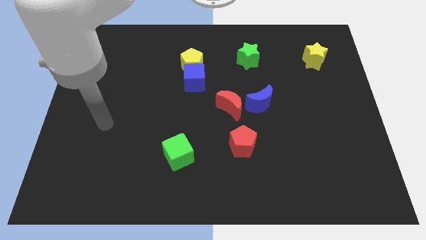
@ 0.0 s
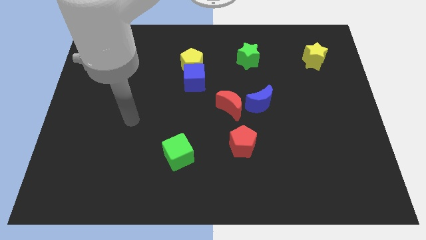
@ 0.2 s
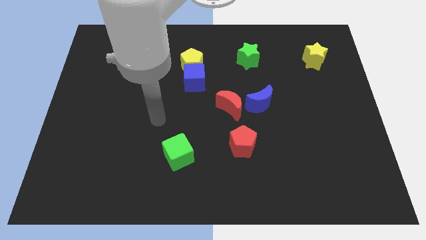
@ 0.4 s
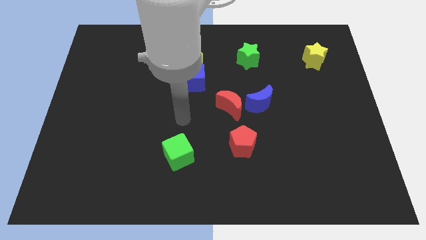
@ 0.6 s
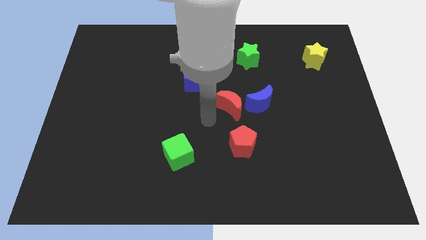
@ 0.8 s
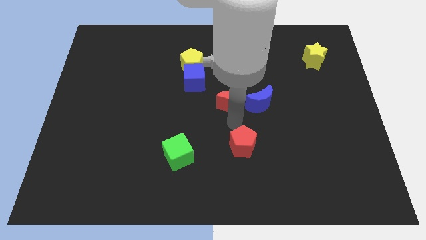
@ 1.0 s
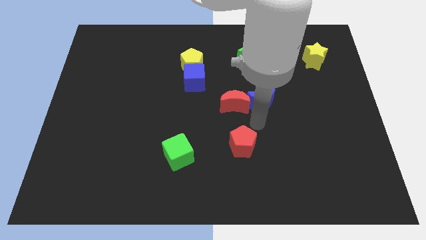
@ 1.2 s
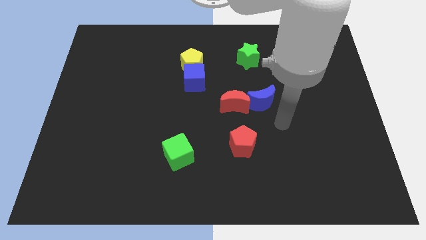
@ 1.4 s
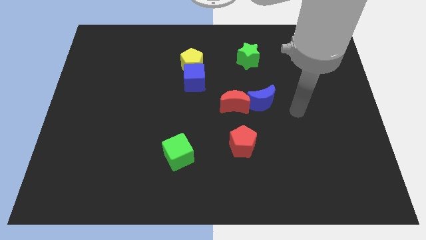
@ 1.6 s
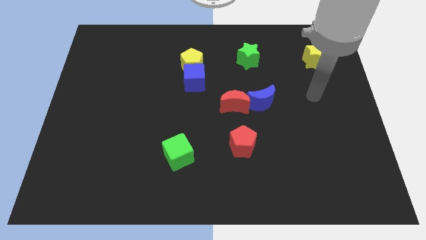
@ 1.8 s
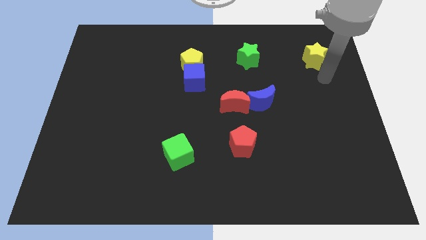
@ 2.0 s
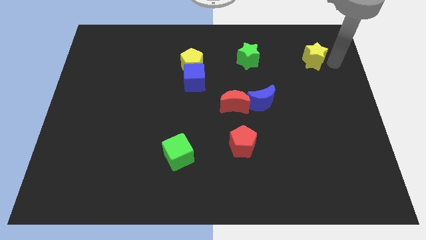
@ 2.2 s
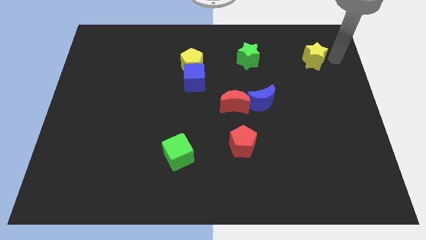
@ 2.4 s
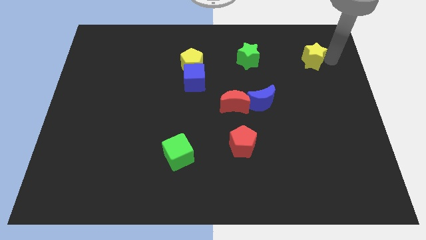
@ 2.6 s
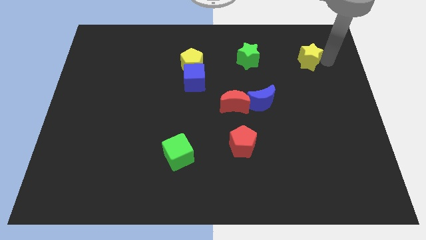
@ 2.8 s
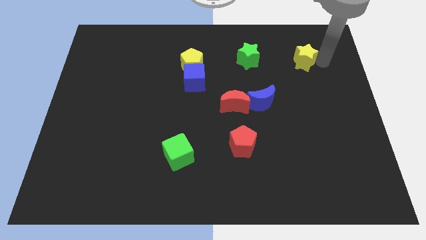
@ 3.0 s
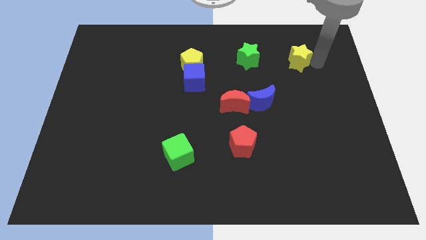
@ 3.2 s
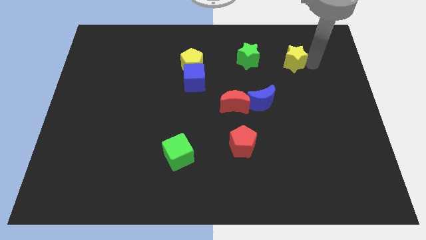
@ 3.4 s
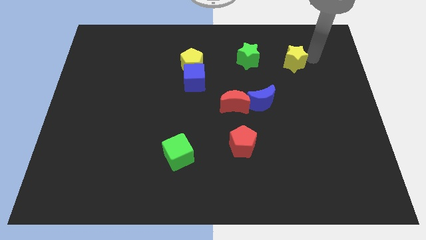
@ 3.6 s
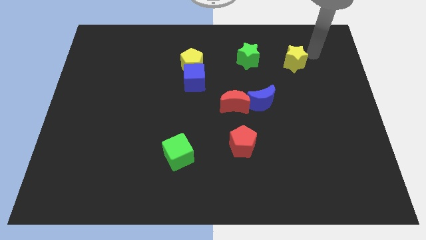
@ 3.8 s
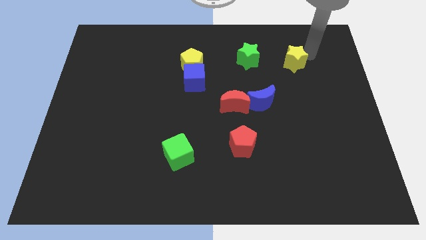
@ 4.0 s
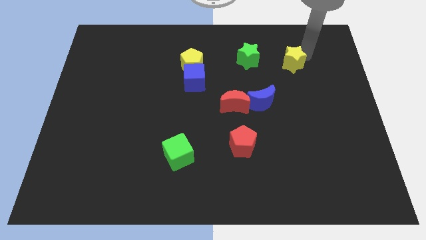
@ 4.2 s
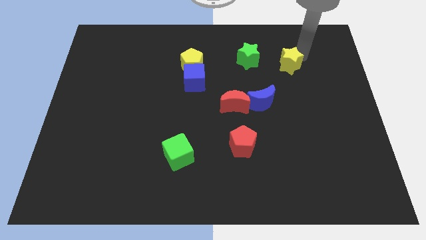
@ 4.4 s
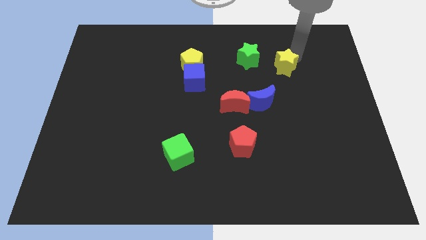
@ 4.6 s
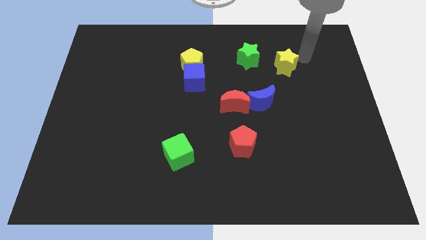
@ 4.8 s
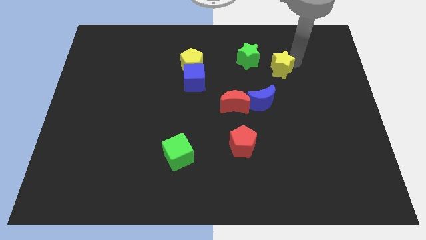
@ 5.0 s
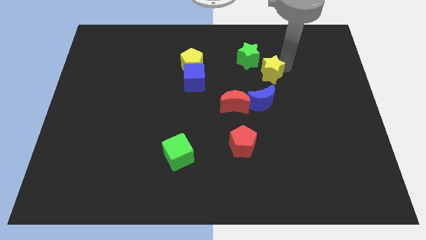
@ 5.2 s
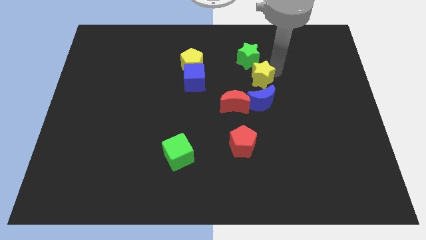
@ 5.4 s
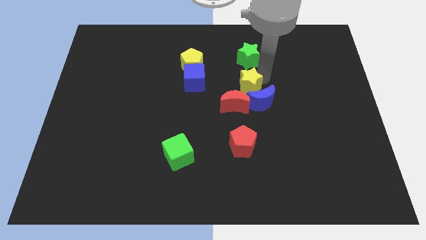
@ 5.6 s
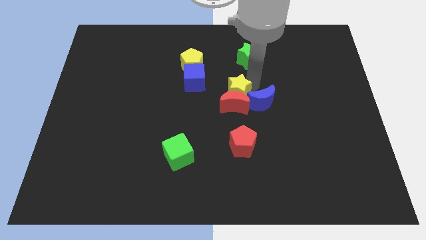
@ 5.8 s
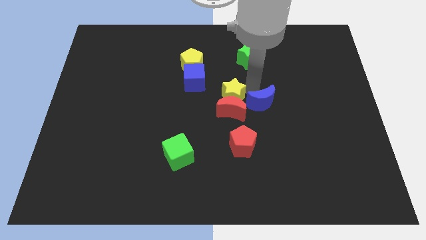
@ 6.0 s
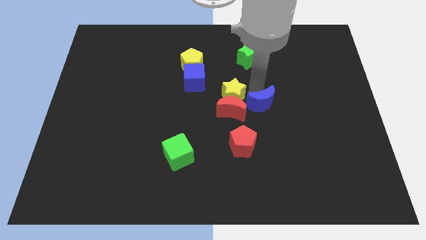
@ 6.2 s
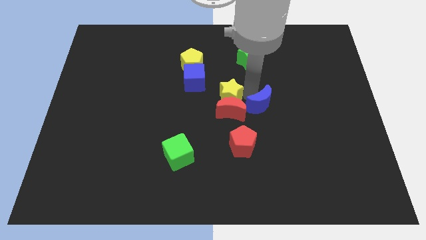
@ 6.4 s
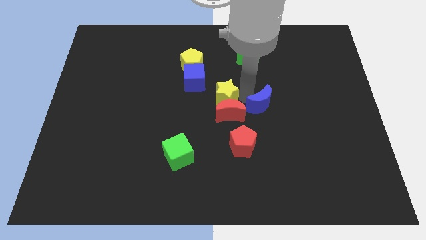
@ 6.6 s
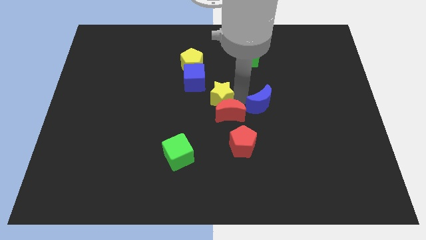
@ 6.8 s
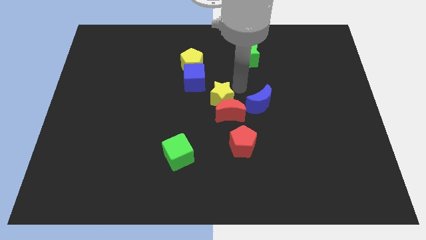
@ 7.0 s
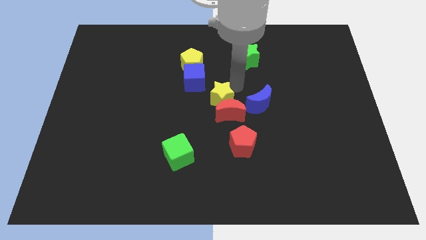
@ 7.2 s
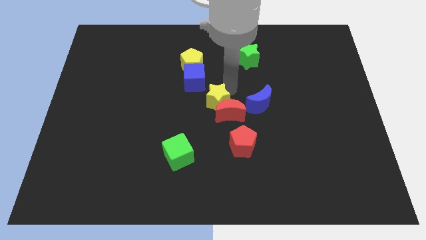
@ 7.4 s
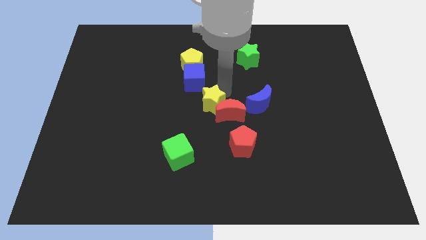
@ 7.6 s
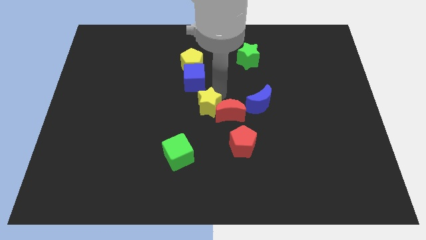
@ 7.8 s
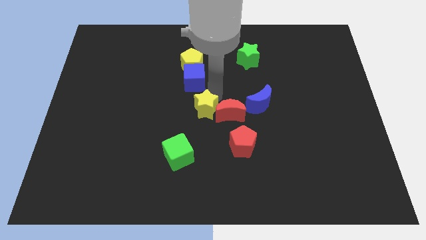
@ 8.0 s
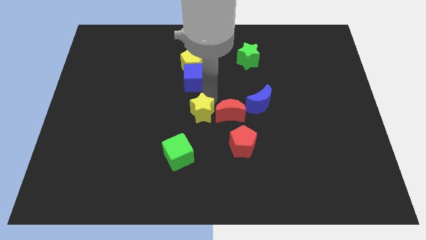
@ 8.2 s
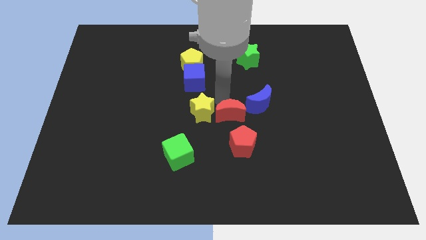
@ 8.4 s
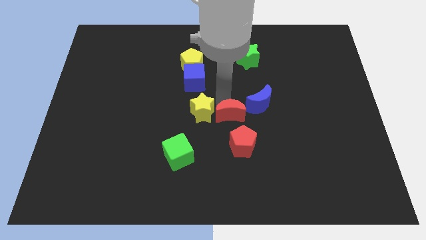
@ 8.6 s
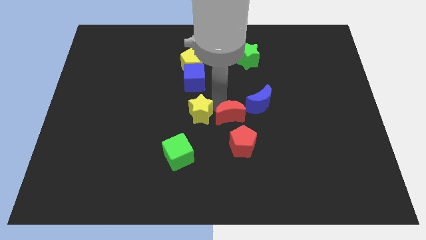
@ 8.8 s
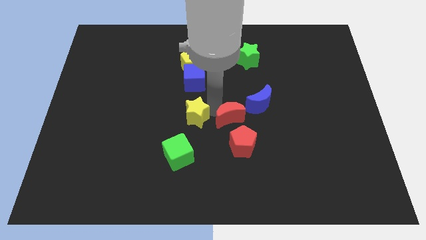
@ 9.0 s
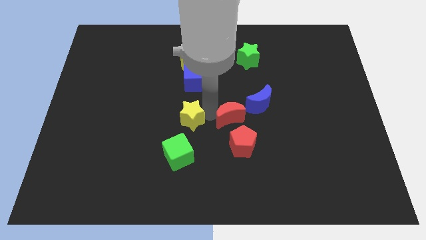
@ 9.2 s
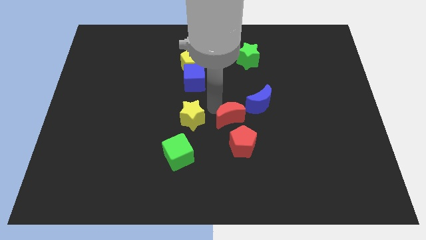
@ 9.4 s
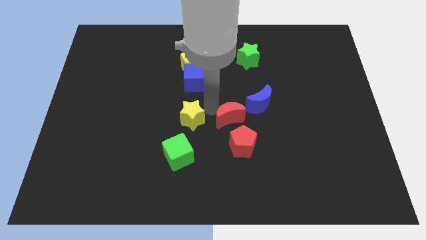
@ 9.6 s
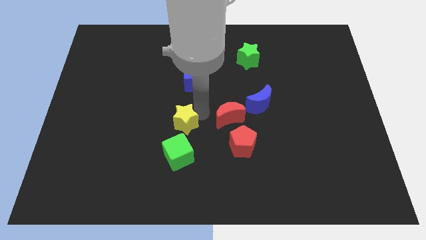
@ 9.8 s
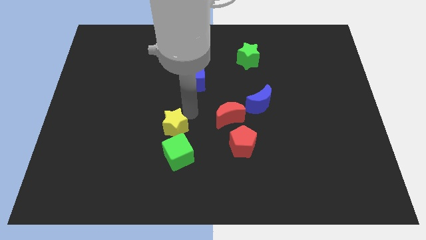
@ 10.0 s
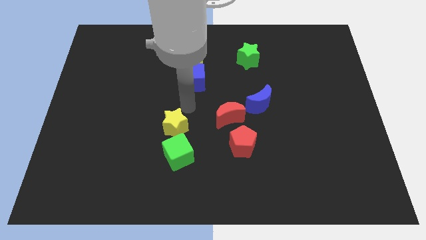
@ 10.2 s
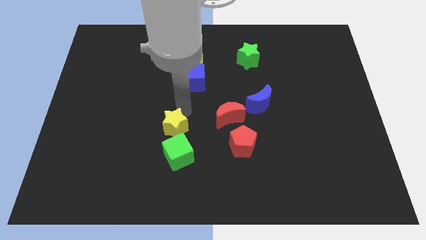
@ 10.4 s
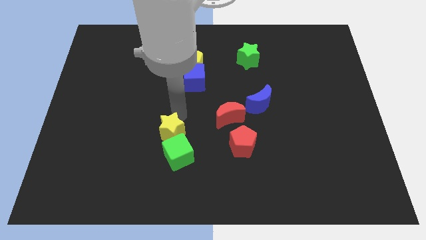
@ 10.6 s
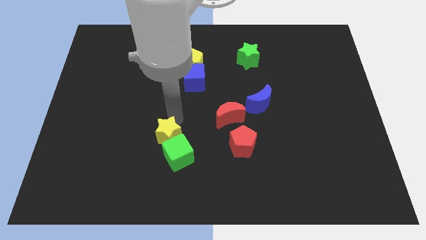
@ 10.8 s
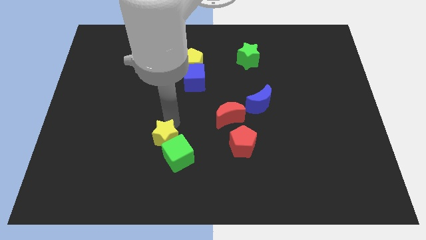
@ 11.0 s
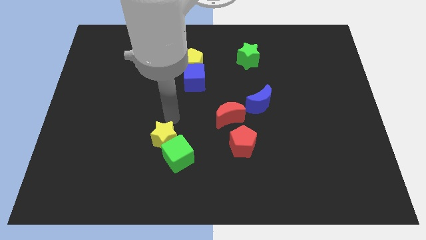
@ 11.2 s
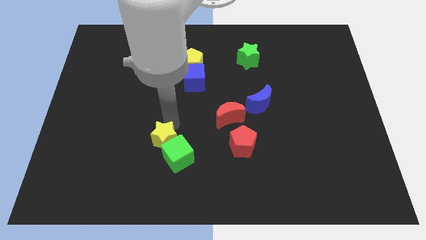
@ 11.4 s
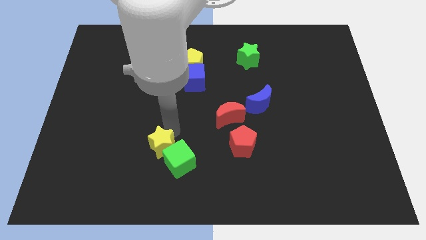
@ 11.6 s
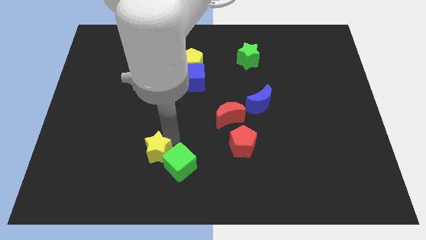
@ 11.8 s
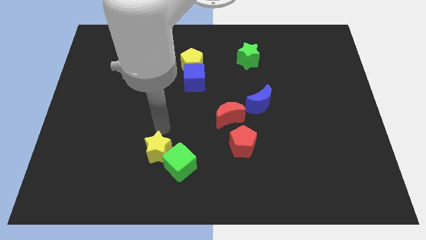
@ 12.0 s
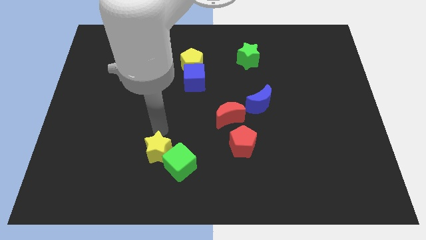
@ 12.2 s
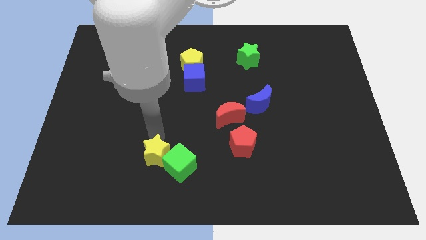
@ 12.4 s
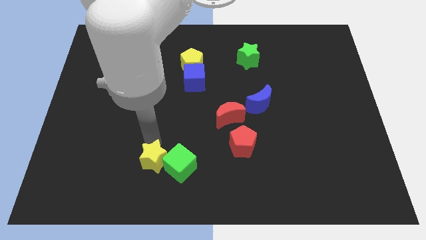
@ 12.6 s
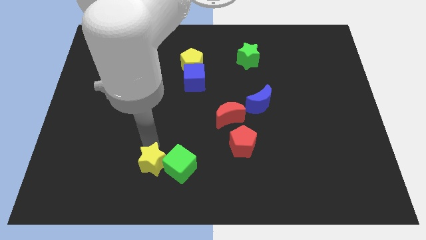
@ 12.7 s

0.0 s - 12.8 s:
slide the yellow star to the bottom left side of the green cube
